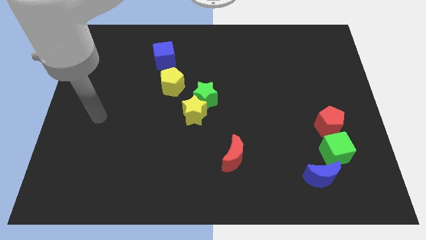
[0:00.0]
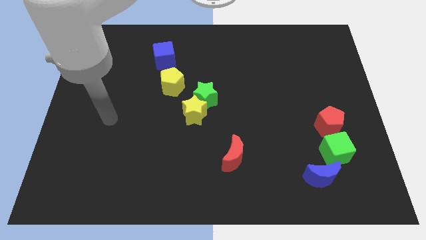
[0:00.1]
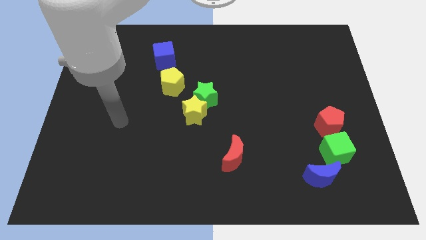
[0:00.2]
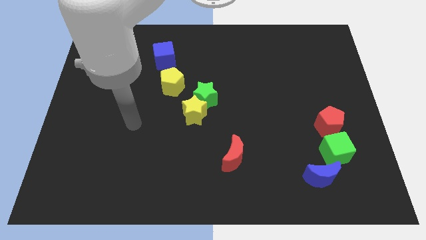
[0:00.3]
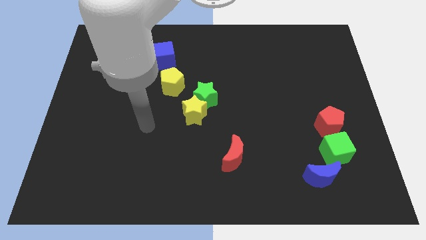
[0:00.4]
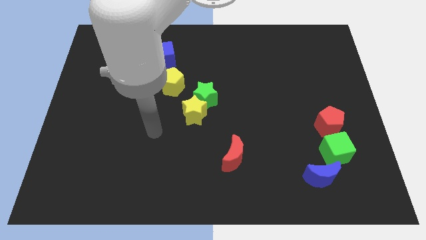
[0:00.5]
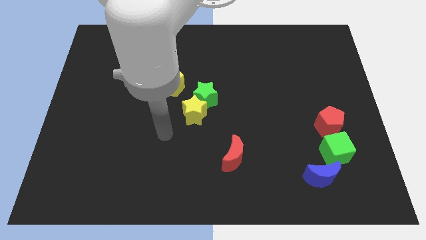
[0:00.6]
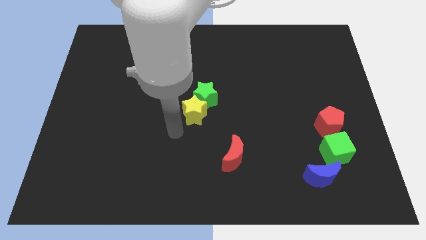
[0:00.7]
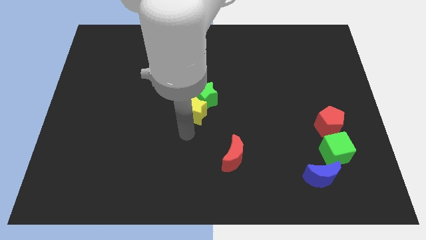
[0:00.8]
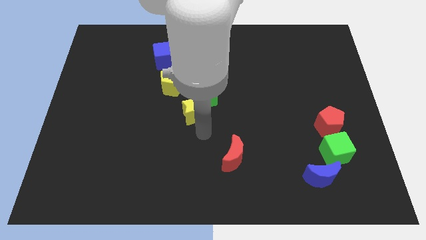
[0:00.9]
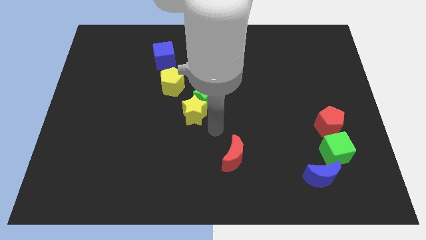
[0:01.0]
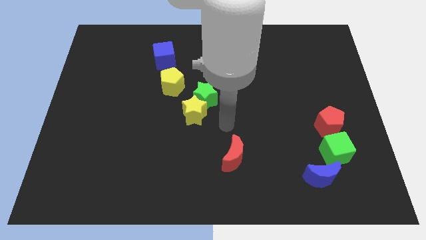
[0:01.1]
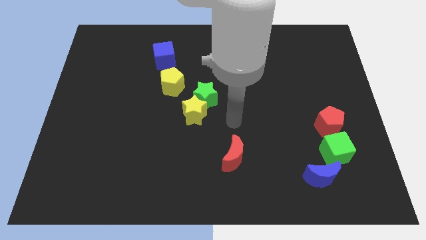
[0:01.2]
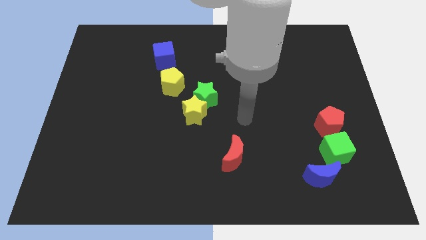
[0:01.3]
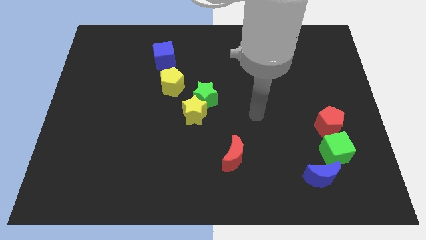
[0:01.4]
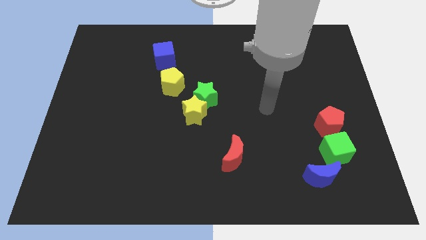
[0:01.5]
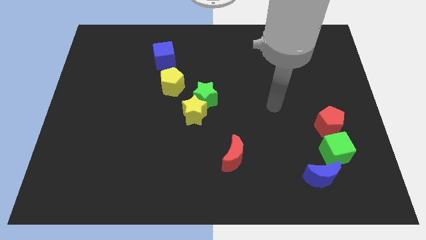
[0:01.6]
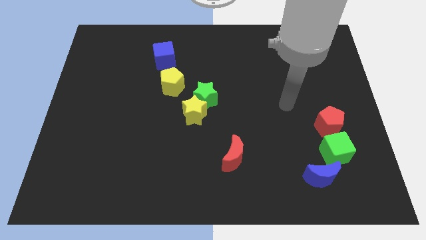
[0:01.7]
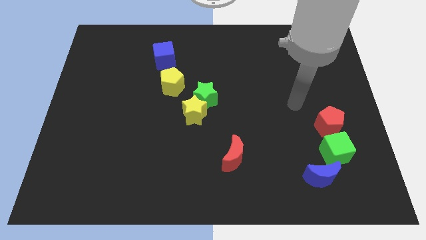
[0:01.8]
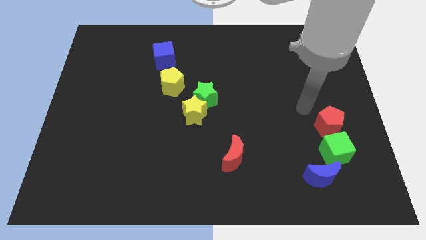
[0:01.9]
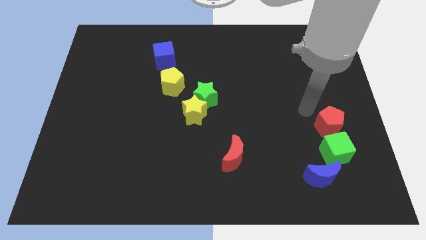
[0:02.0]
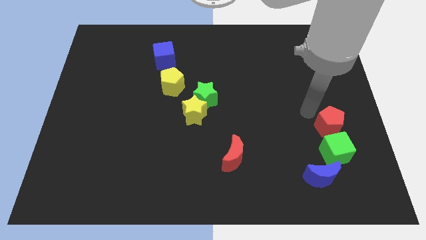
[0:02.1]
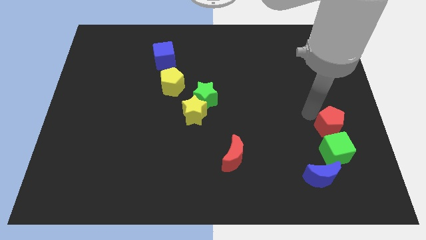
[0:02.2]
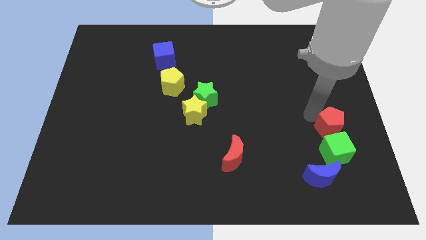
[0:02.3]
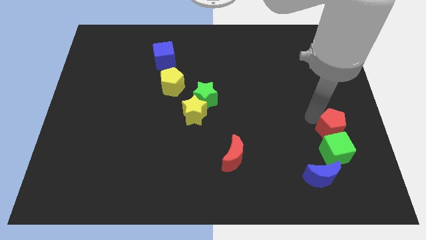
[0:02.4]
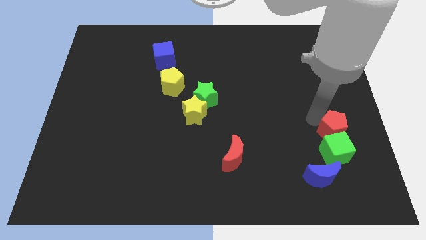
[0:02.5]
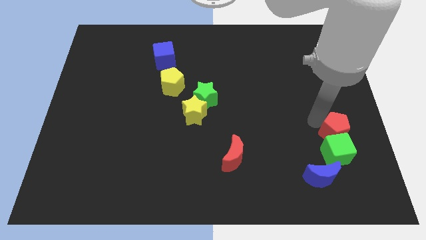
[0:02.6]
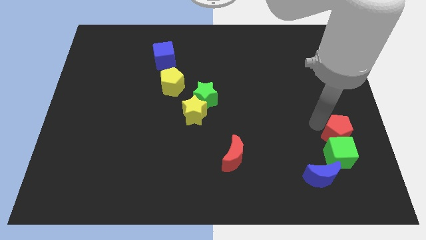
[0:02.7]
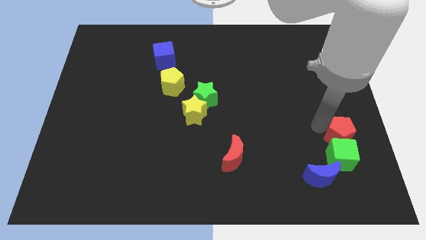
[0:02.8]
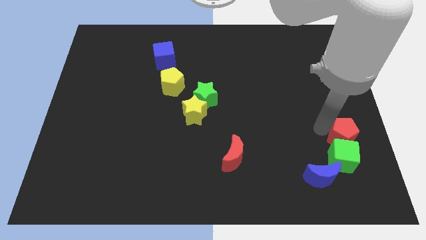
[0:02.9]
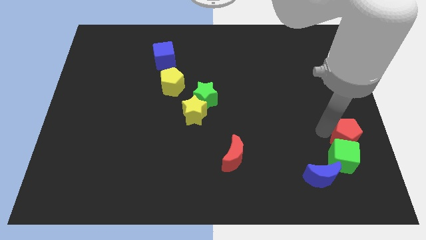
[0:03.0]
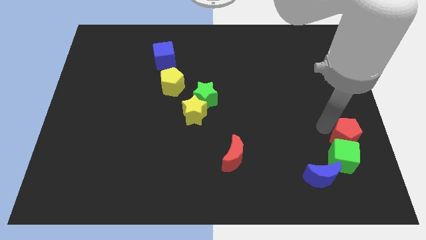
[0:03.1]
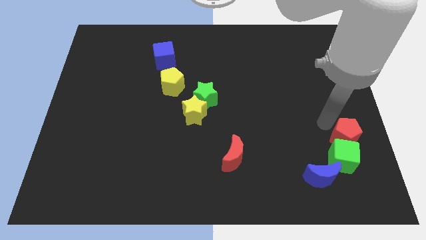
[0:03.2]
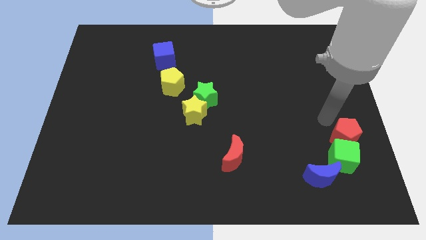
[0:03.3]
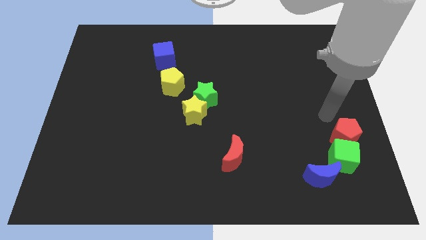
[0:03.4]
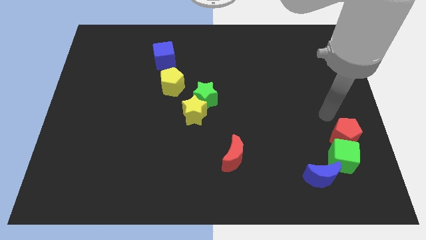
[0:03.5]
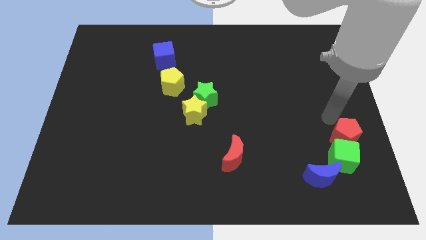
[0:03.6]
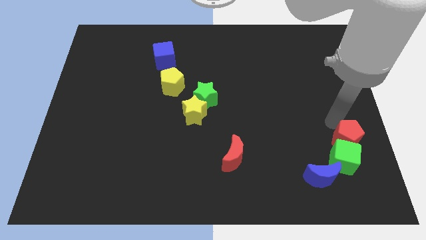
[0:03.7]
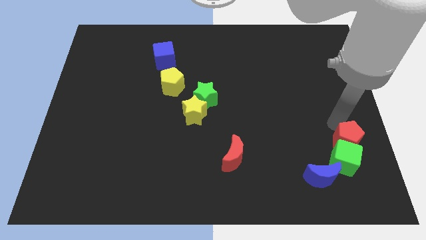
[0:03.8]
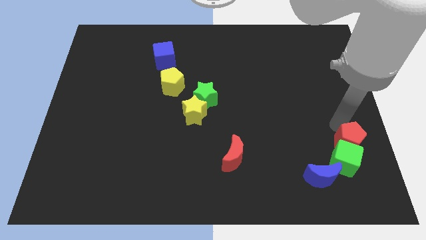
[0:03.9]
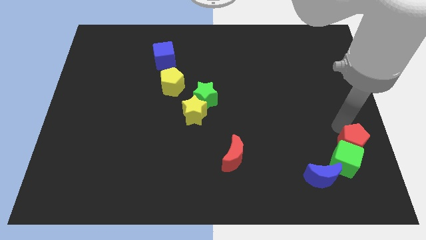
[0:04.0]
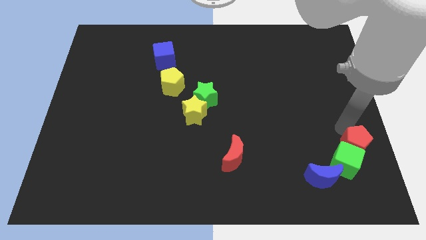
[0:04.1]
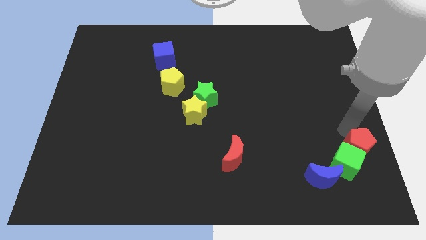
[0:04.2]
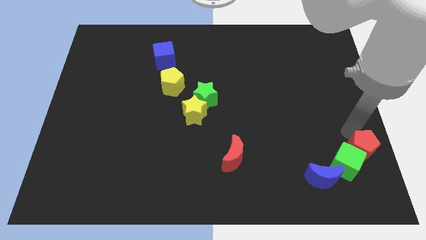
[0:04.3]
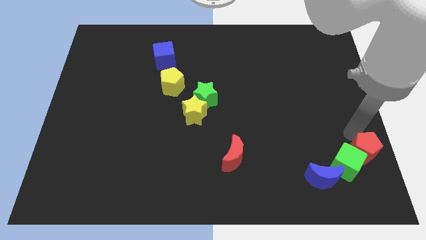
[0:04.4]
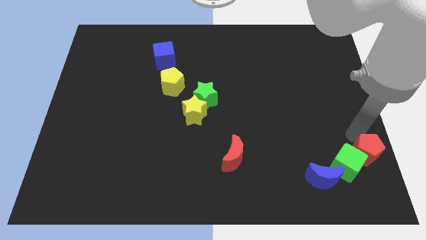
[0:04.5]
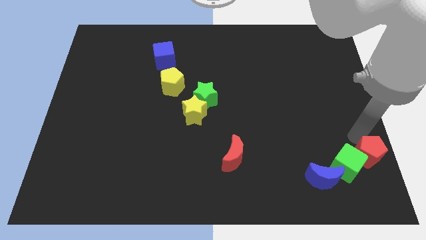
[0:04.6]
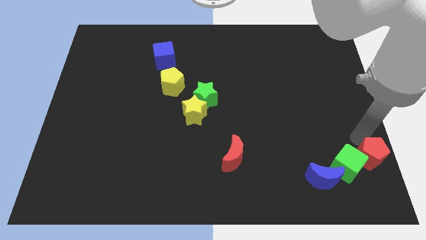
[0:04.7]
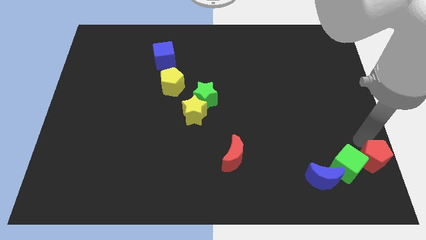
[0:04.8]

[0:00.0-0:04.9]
slide the red pentagon to the bottom right

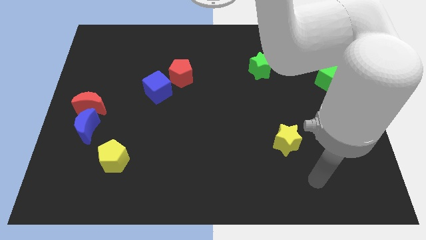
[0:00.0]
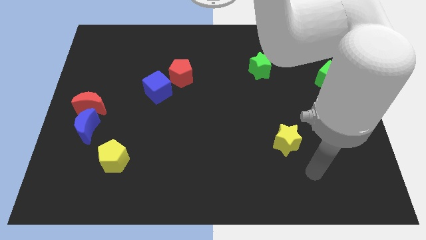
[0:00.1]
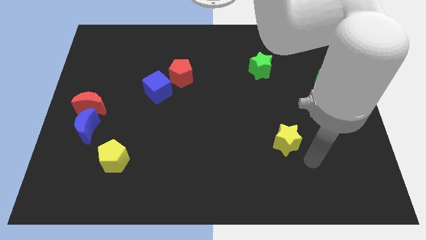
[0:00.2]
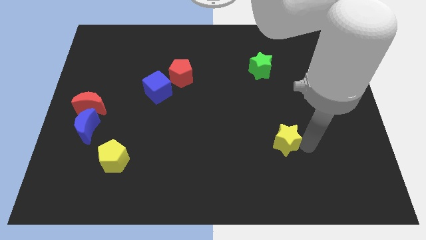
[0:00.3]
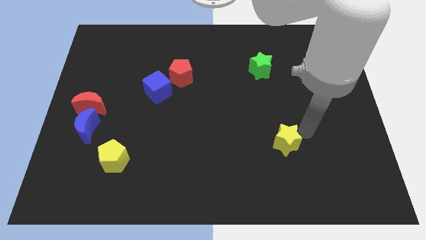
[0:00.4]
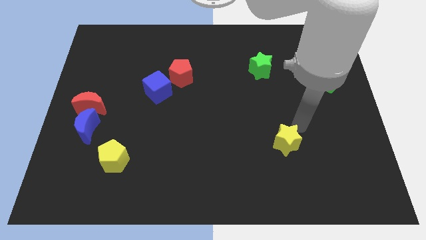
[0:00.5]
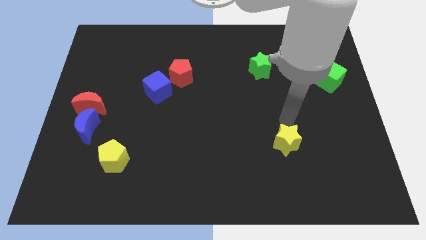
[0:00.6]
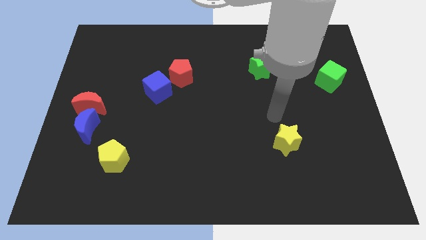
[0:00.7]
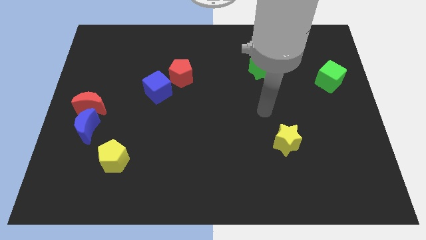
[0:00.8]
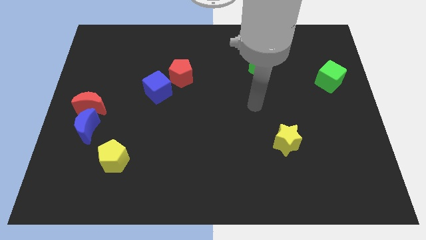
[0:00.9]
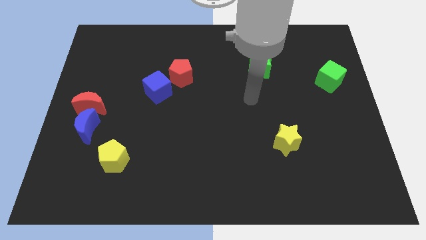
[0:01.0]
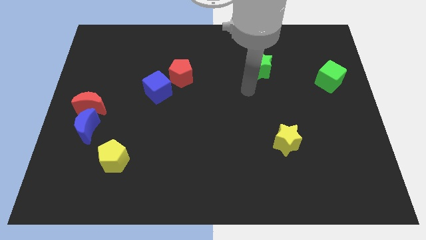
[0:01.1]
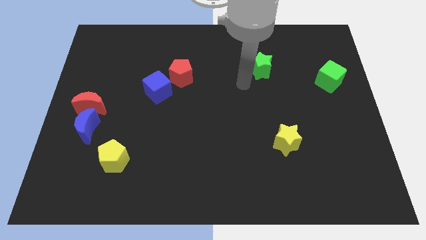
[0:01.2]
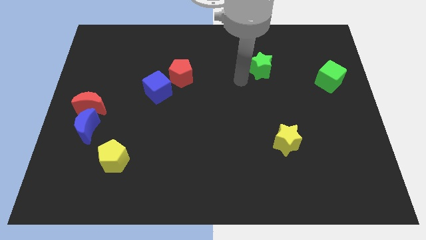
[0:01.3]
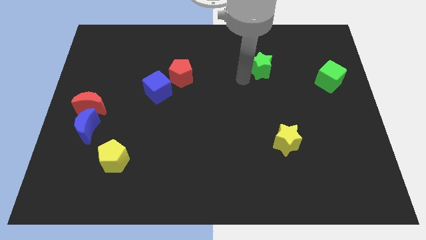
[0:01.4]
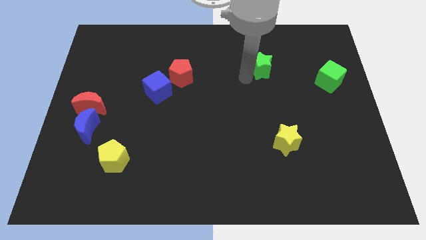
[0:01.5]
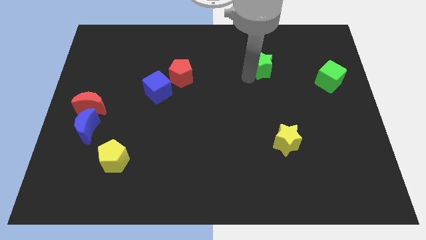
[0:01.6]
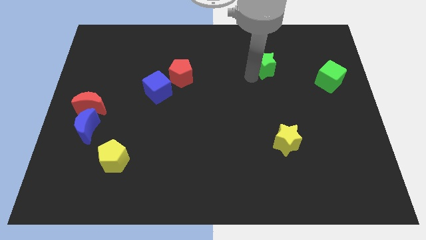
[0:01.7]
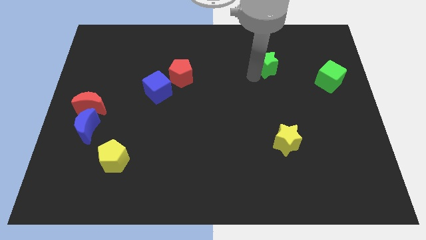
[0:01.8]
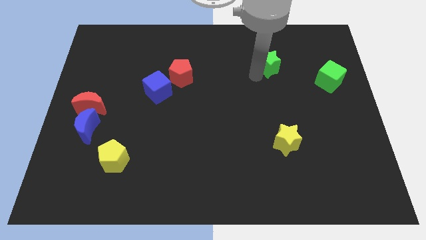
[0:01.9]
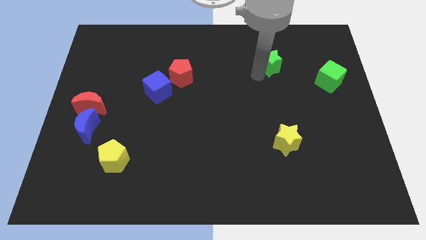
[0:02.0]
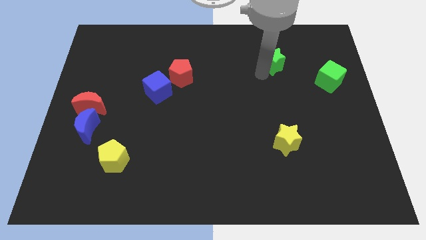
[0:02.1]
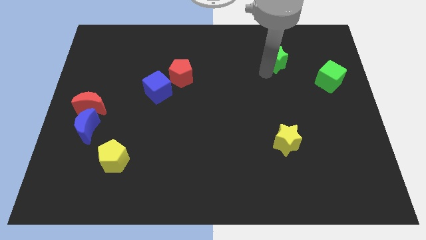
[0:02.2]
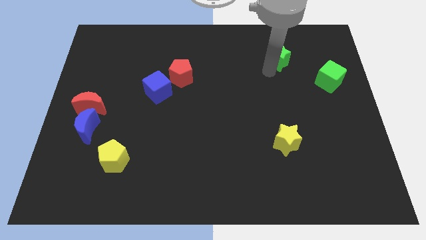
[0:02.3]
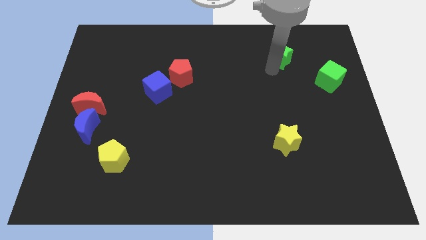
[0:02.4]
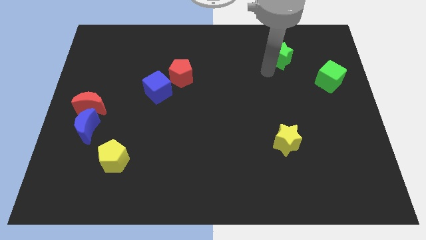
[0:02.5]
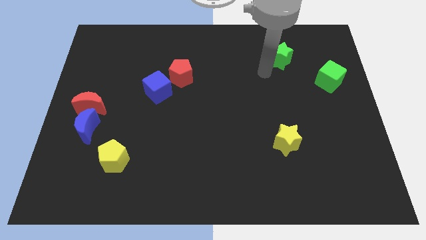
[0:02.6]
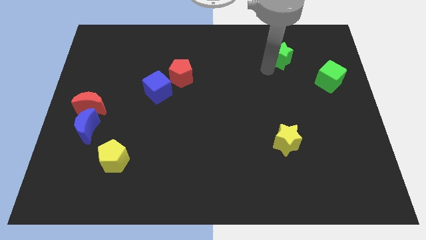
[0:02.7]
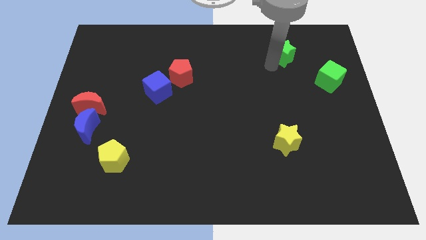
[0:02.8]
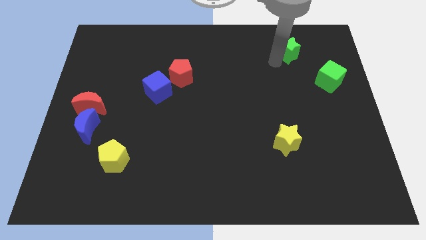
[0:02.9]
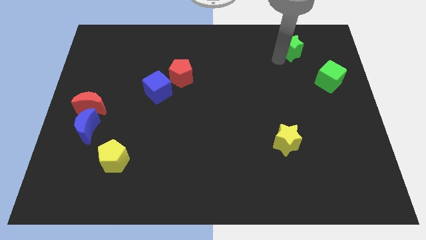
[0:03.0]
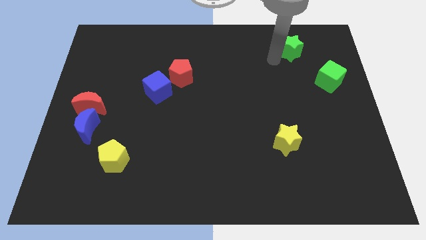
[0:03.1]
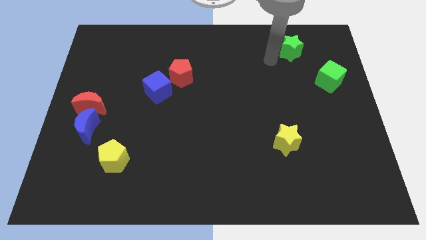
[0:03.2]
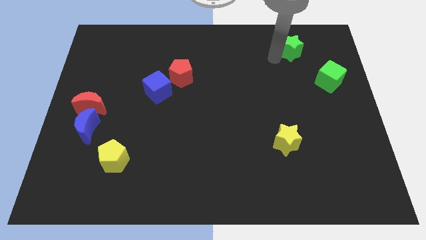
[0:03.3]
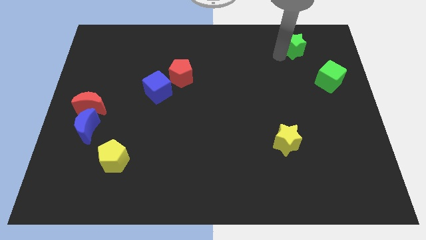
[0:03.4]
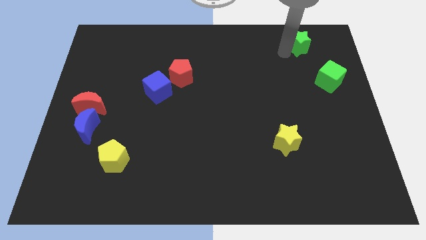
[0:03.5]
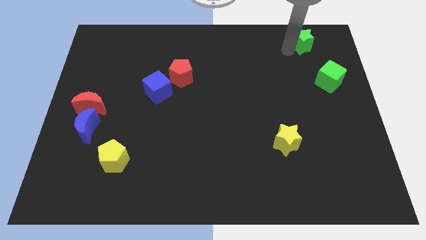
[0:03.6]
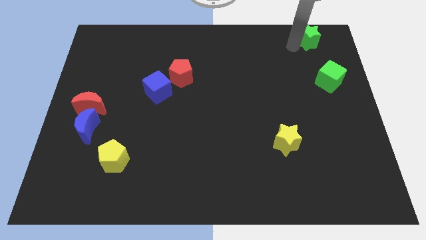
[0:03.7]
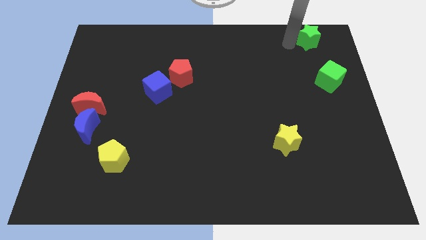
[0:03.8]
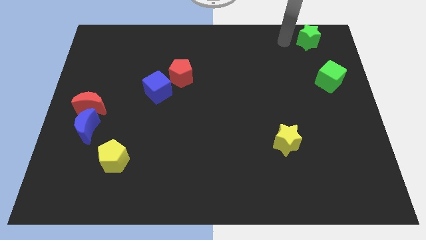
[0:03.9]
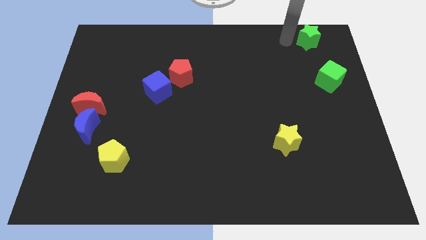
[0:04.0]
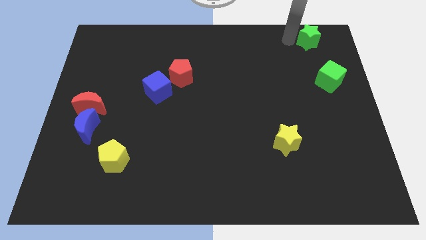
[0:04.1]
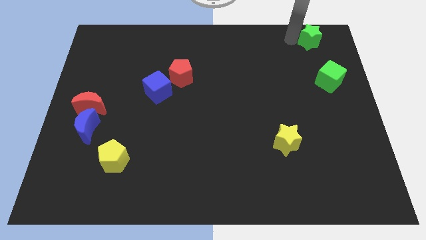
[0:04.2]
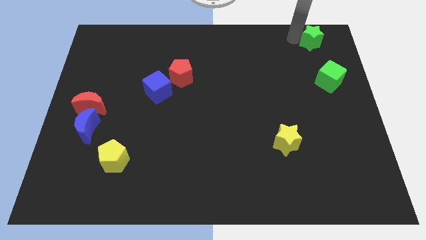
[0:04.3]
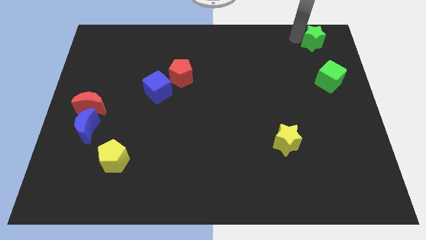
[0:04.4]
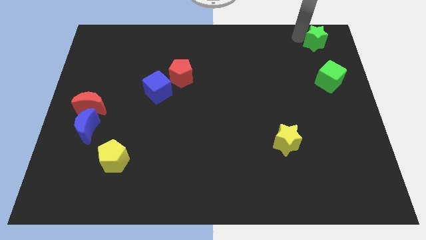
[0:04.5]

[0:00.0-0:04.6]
put the green star to the top right of the board
